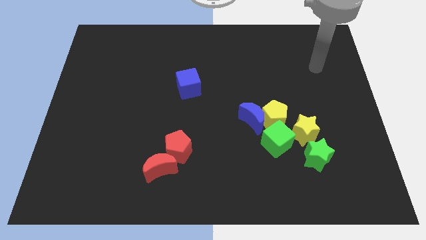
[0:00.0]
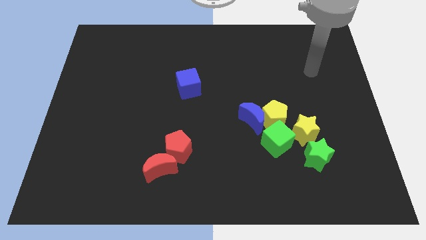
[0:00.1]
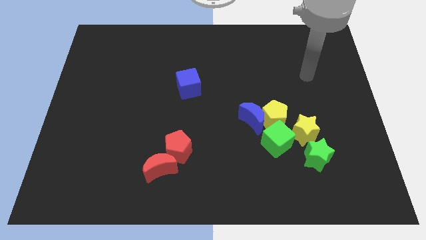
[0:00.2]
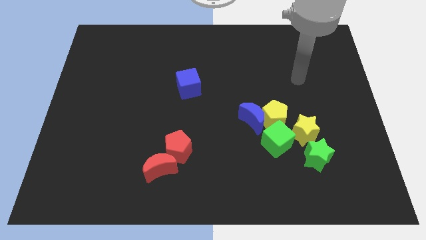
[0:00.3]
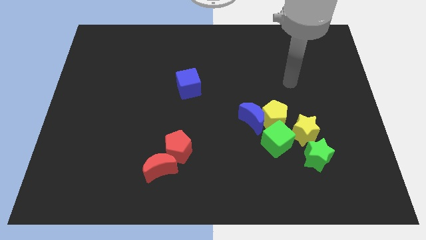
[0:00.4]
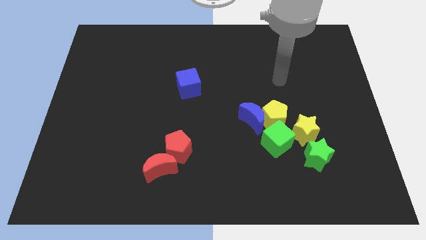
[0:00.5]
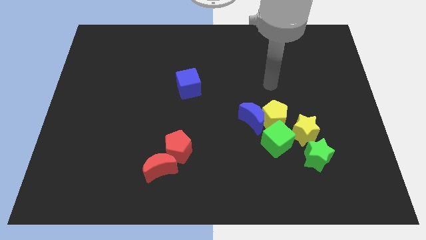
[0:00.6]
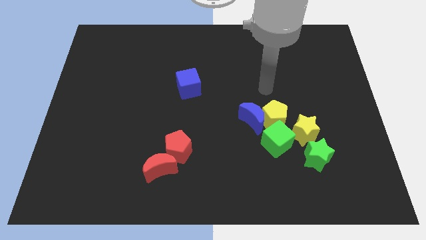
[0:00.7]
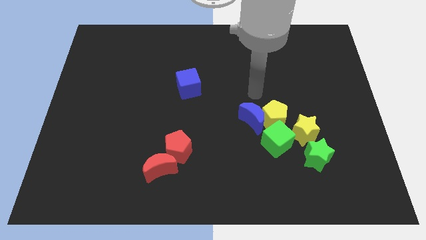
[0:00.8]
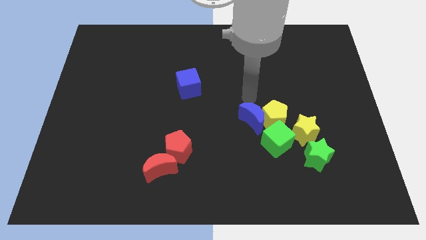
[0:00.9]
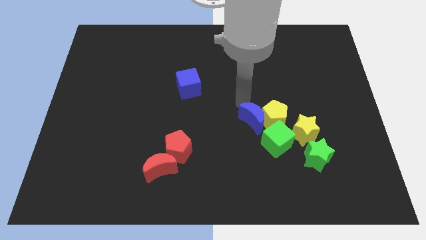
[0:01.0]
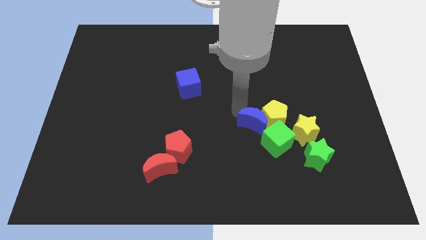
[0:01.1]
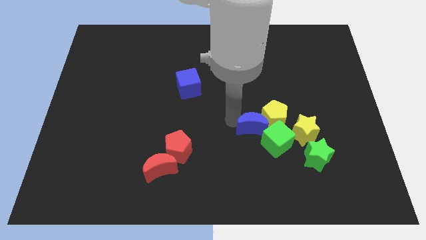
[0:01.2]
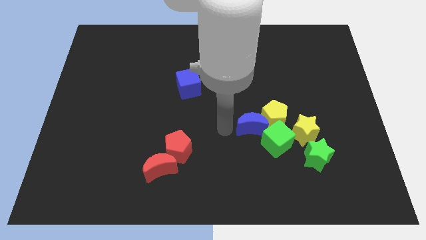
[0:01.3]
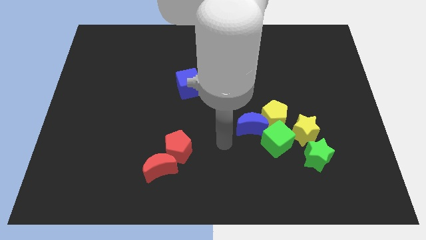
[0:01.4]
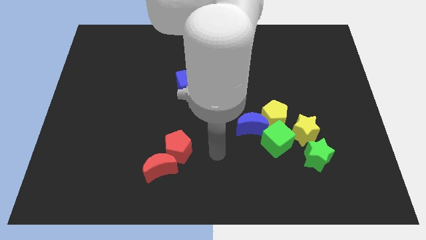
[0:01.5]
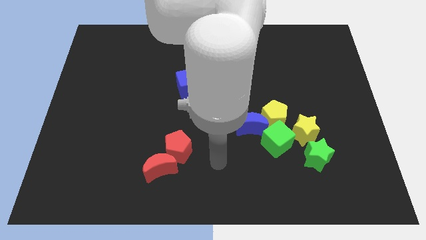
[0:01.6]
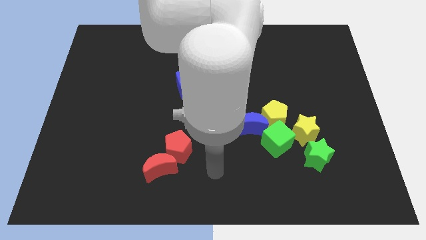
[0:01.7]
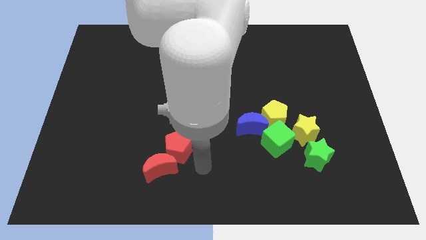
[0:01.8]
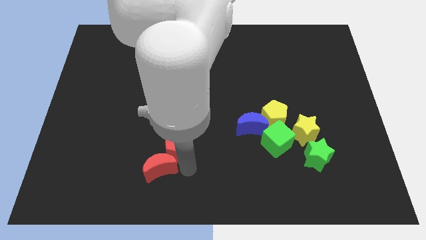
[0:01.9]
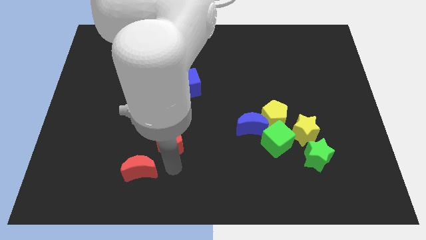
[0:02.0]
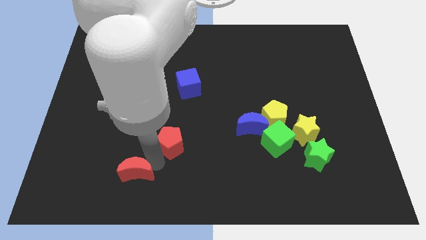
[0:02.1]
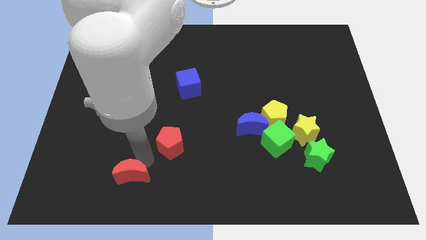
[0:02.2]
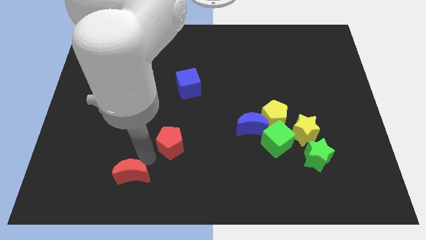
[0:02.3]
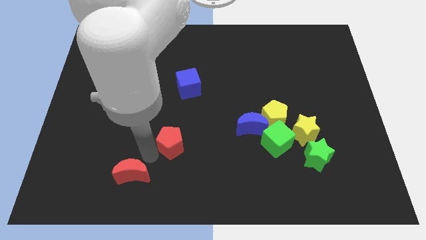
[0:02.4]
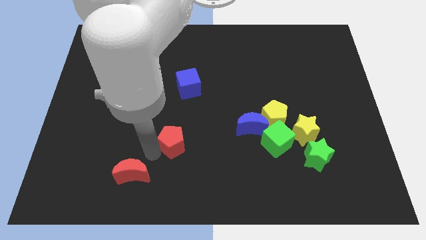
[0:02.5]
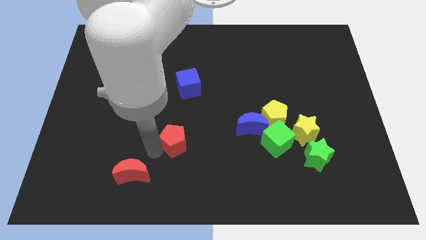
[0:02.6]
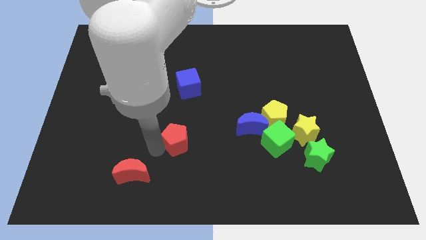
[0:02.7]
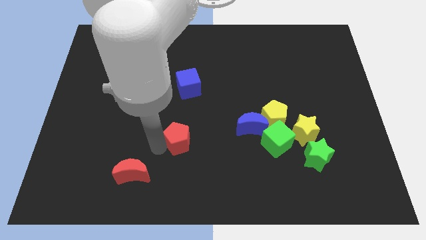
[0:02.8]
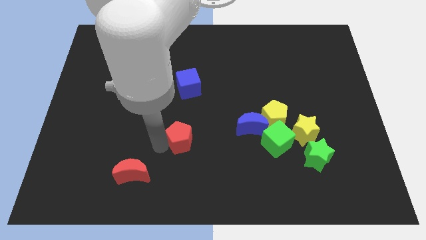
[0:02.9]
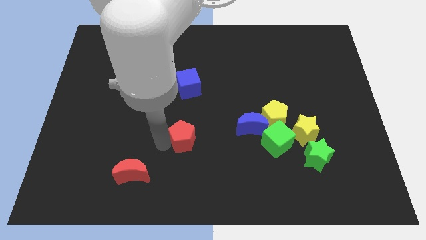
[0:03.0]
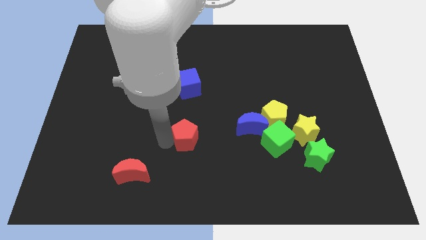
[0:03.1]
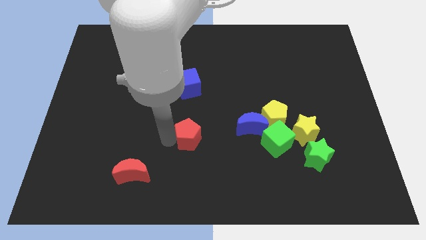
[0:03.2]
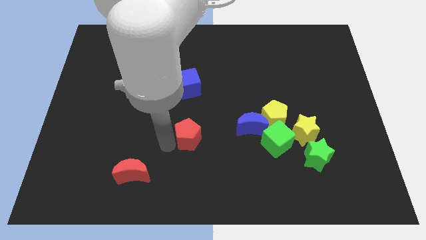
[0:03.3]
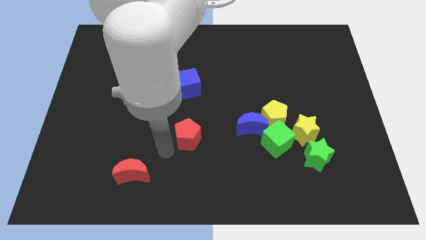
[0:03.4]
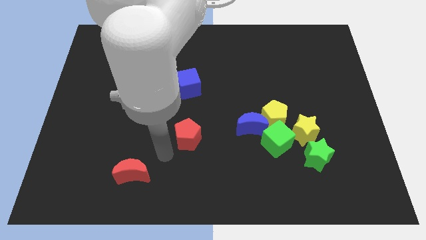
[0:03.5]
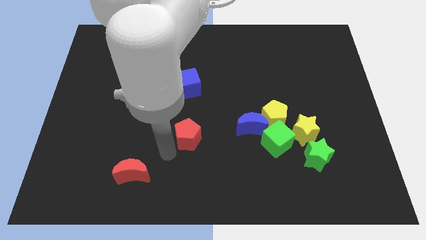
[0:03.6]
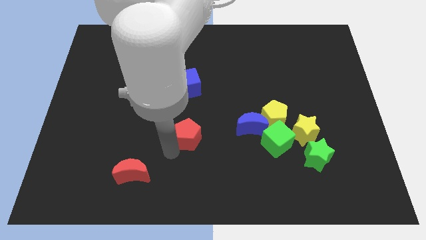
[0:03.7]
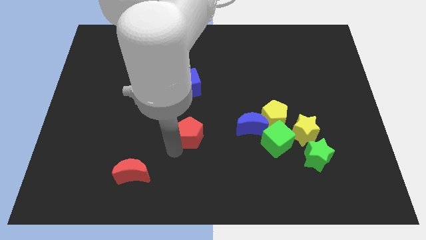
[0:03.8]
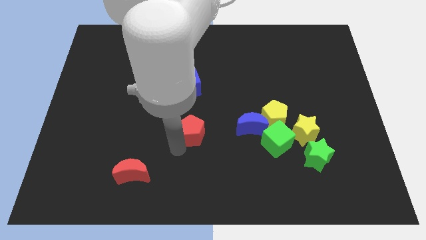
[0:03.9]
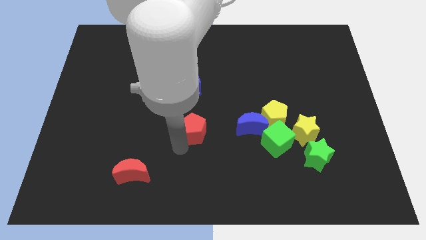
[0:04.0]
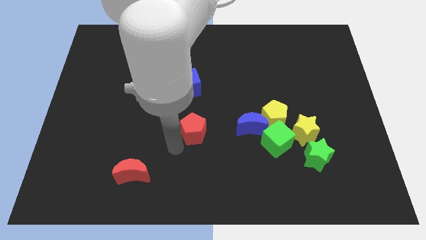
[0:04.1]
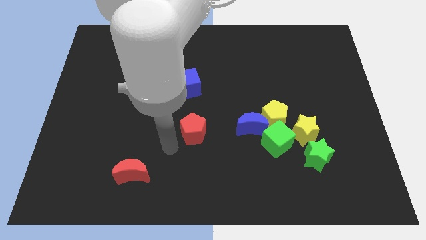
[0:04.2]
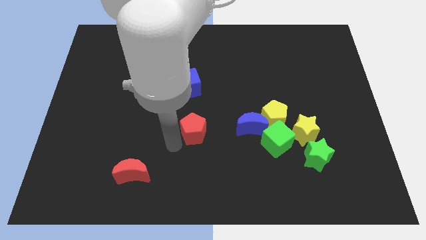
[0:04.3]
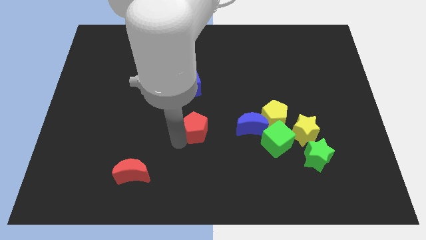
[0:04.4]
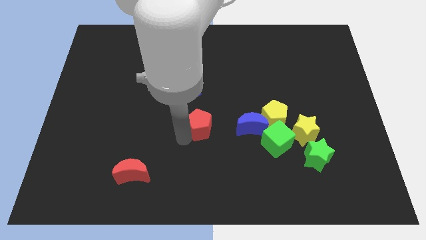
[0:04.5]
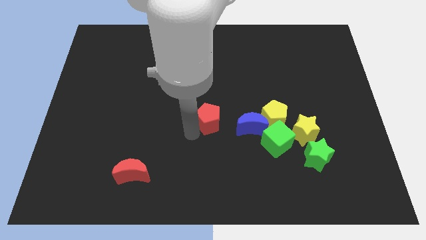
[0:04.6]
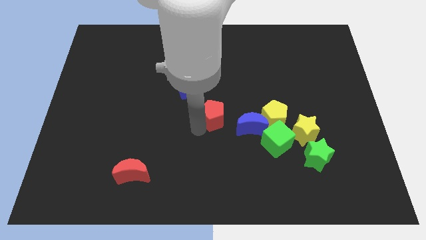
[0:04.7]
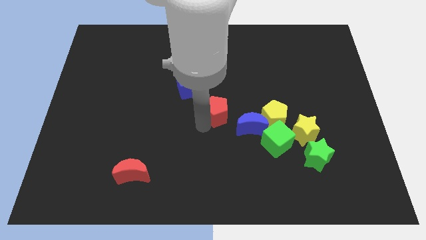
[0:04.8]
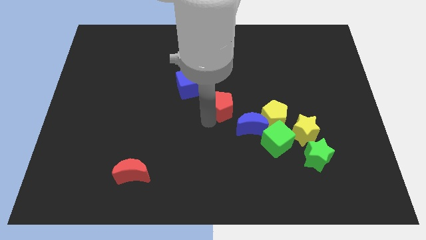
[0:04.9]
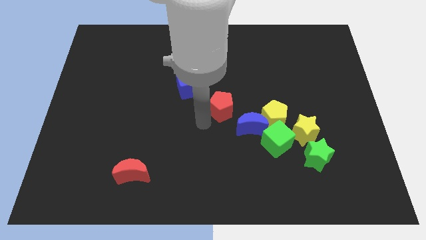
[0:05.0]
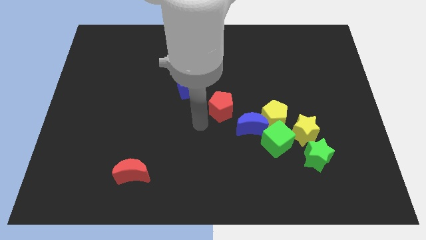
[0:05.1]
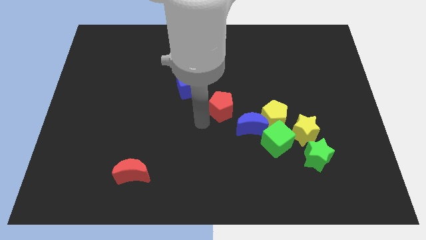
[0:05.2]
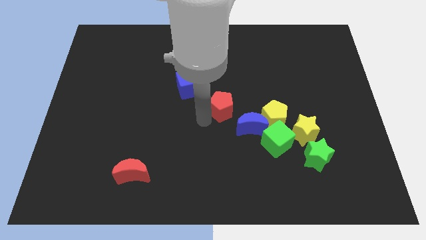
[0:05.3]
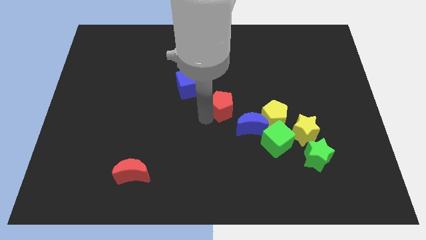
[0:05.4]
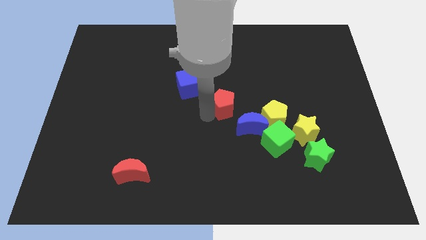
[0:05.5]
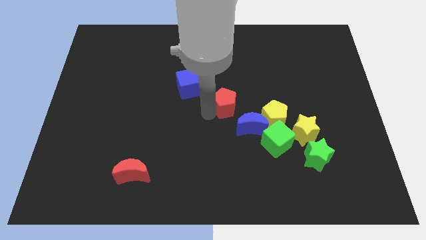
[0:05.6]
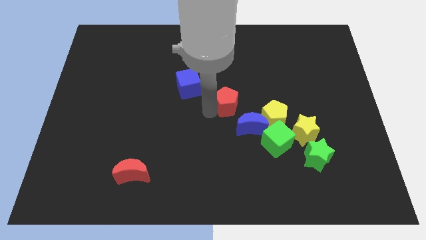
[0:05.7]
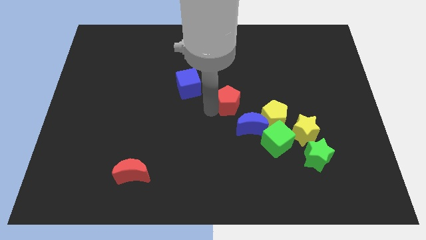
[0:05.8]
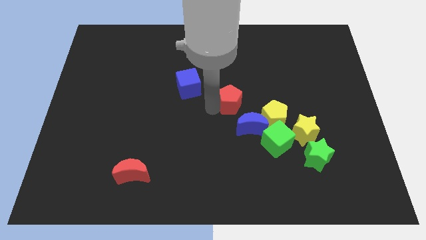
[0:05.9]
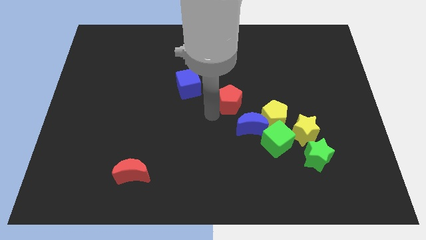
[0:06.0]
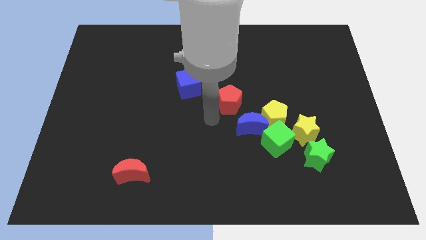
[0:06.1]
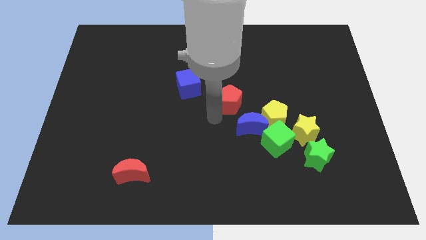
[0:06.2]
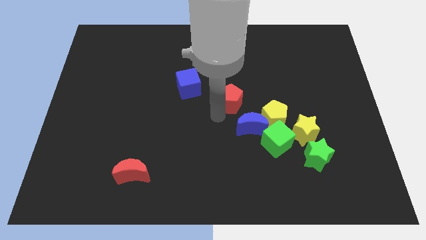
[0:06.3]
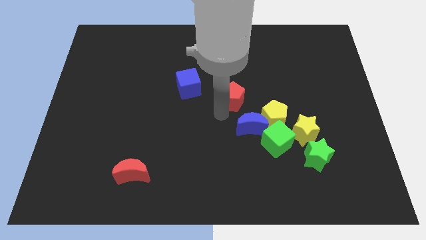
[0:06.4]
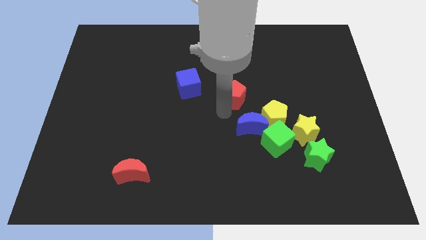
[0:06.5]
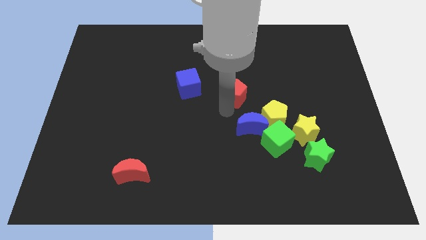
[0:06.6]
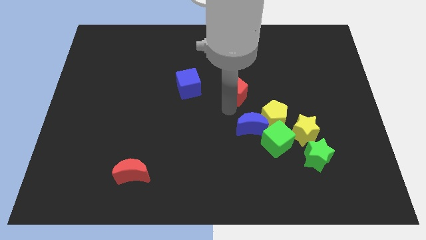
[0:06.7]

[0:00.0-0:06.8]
push the red pentagon up and right diagonally

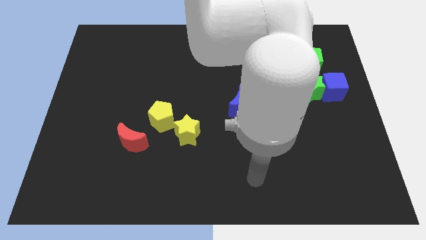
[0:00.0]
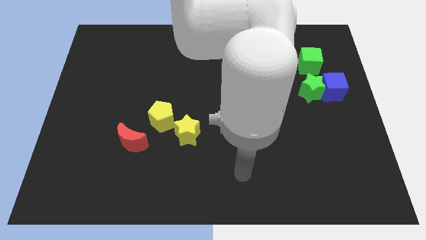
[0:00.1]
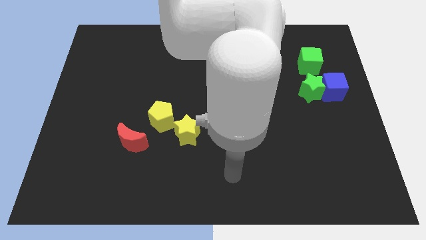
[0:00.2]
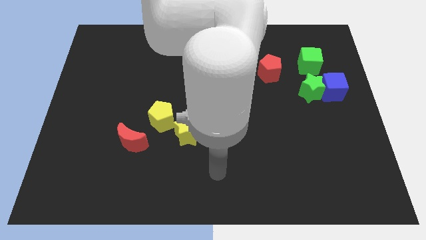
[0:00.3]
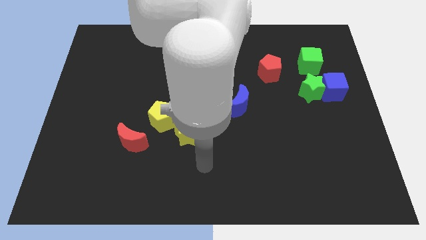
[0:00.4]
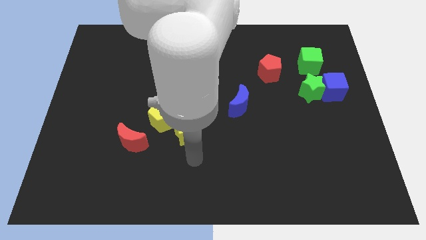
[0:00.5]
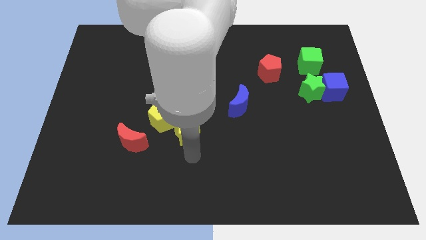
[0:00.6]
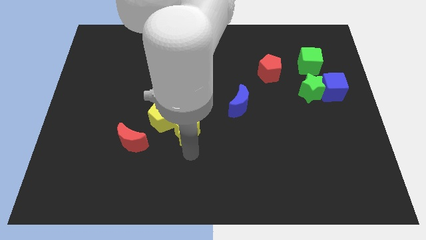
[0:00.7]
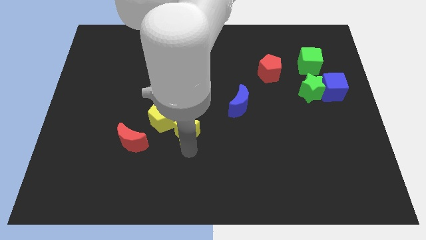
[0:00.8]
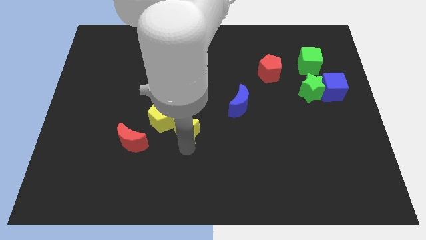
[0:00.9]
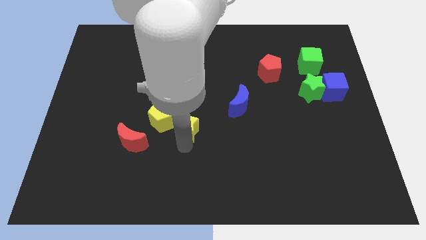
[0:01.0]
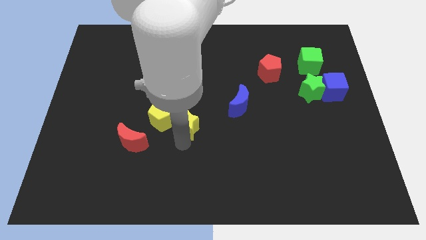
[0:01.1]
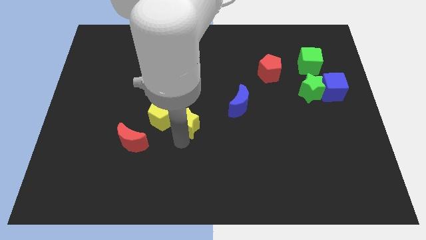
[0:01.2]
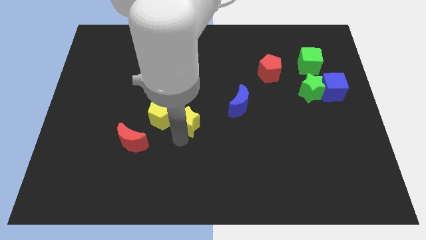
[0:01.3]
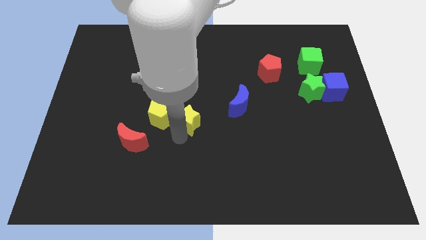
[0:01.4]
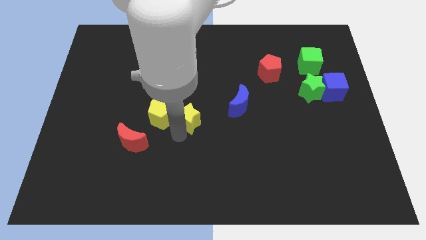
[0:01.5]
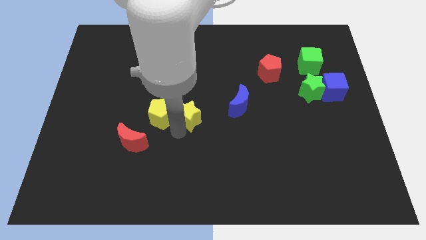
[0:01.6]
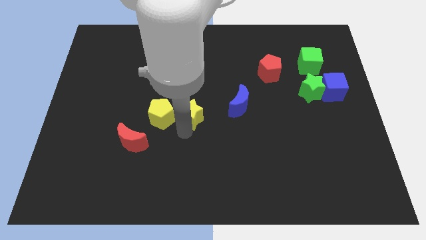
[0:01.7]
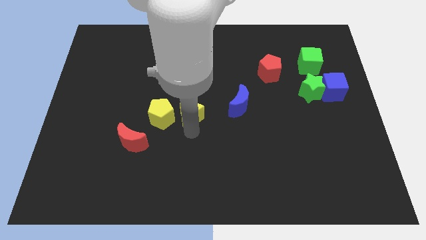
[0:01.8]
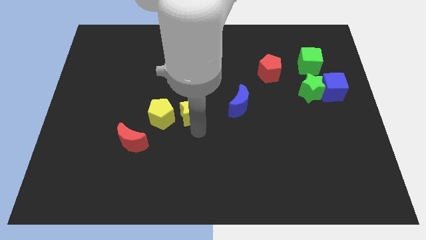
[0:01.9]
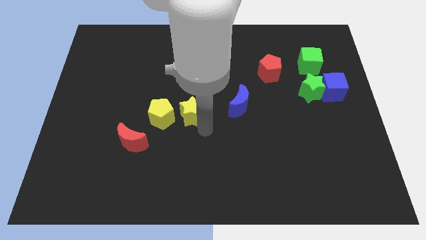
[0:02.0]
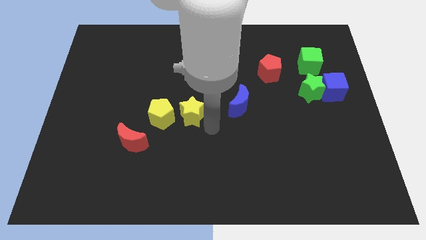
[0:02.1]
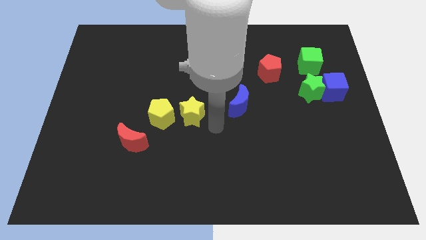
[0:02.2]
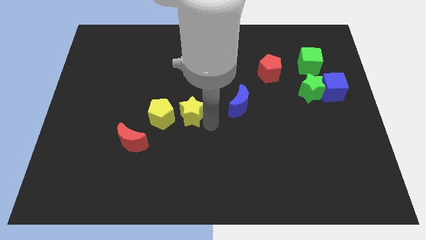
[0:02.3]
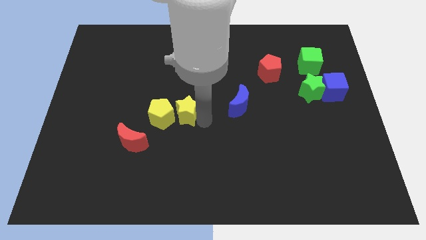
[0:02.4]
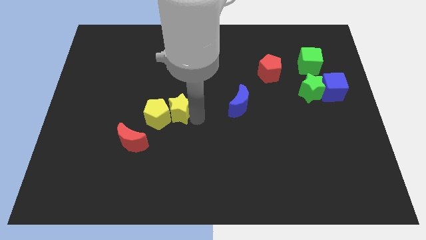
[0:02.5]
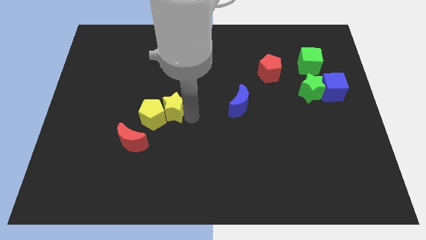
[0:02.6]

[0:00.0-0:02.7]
push the yellow star somewhat upwards and then to the left
